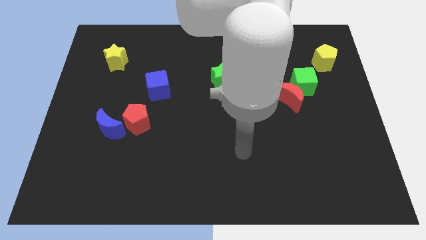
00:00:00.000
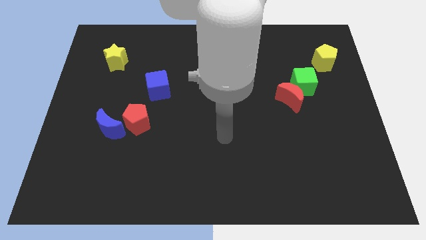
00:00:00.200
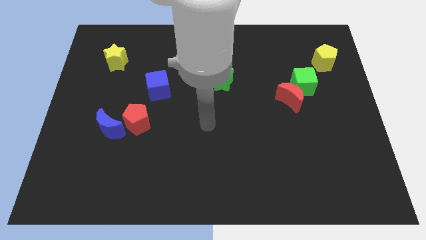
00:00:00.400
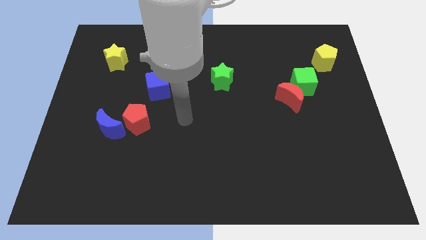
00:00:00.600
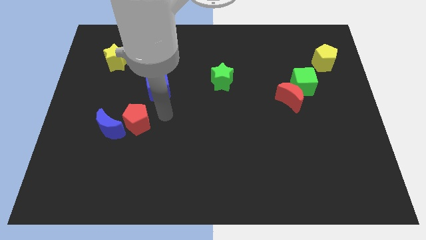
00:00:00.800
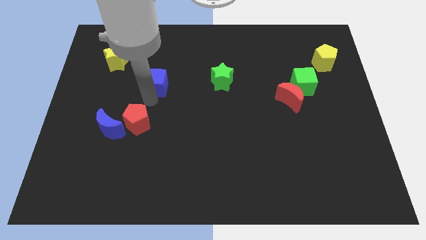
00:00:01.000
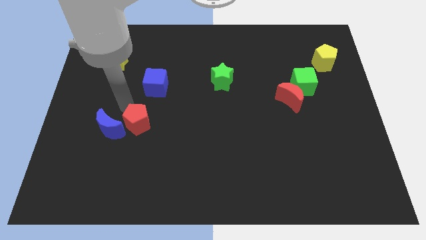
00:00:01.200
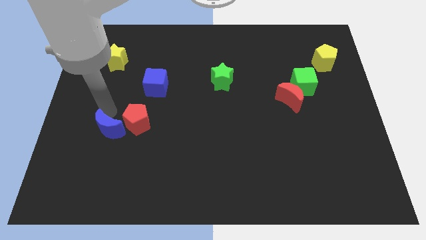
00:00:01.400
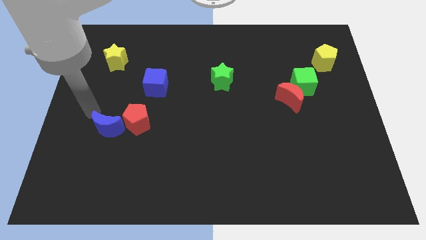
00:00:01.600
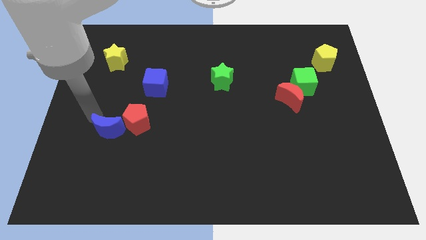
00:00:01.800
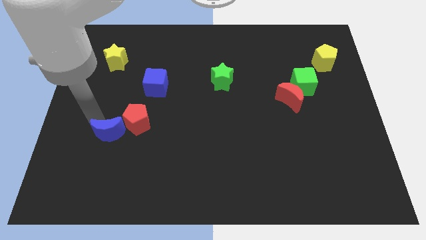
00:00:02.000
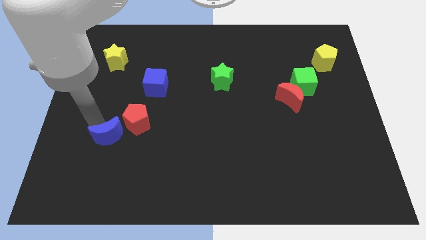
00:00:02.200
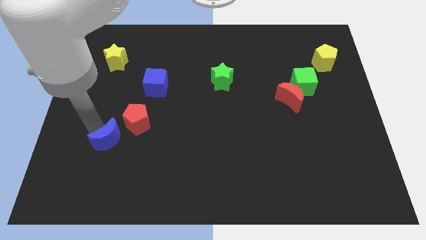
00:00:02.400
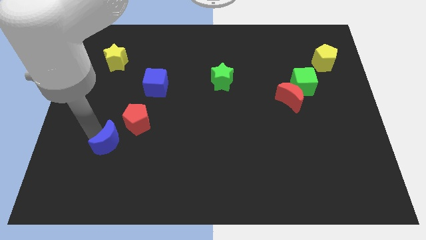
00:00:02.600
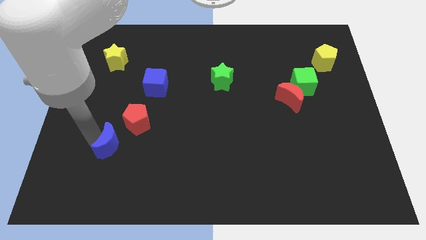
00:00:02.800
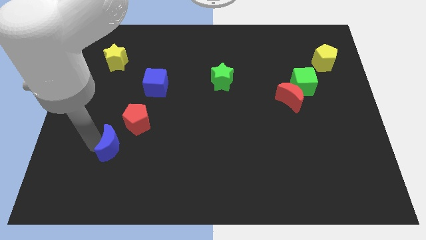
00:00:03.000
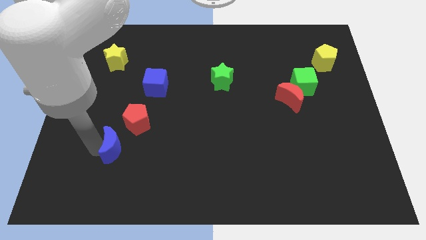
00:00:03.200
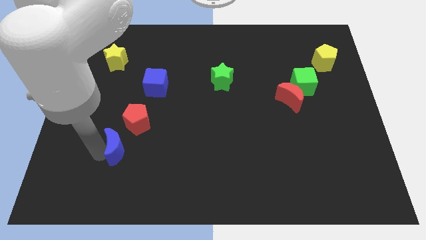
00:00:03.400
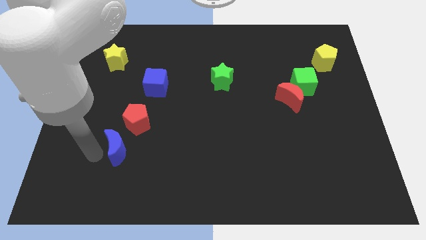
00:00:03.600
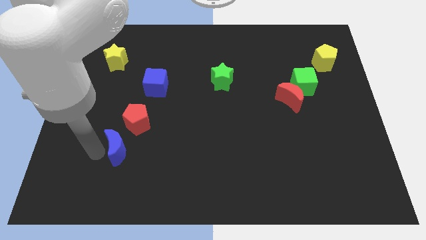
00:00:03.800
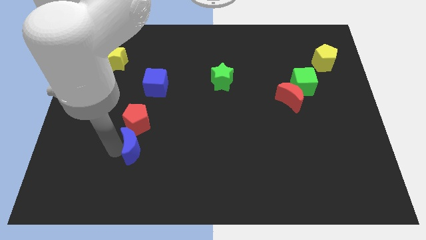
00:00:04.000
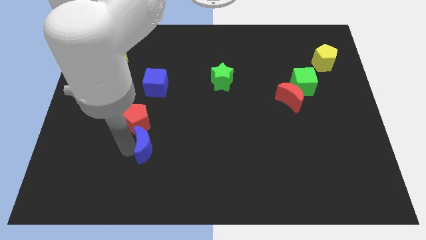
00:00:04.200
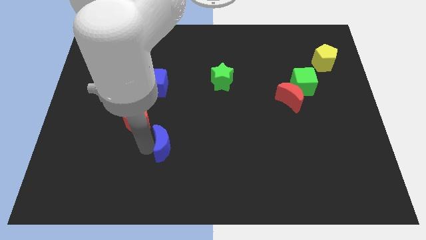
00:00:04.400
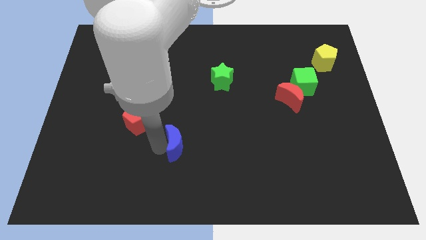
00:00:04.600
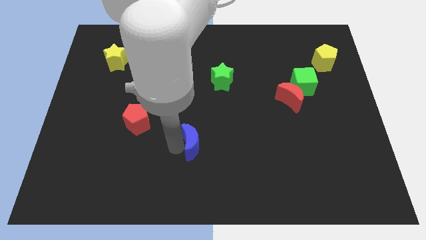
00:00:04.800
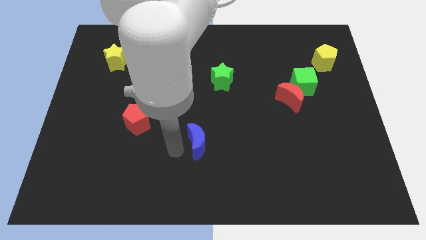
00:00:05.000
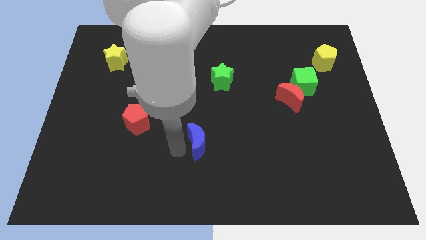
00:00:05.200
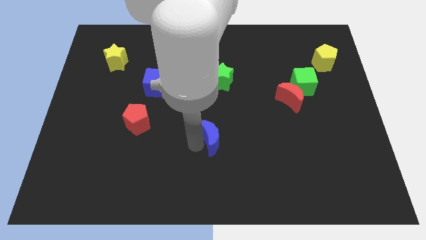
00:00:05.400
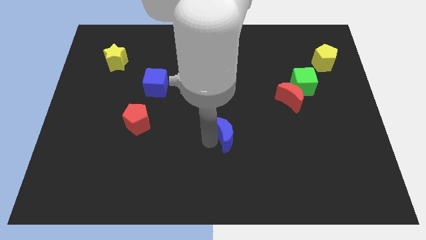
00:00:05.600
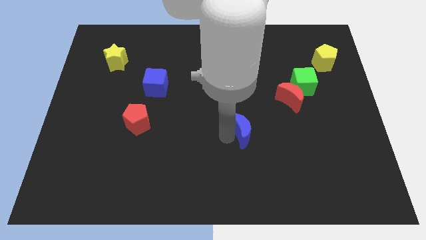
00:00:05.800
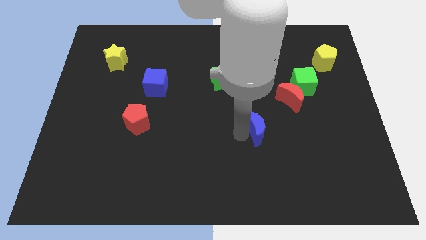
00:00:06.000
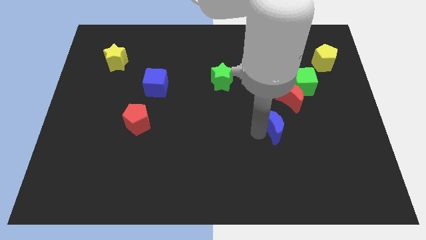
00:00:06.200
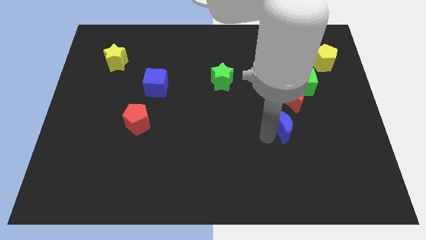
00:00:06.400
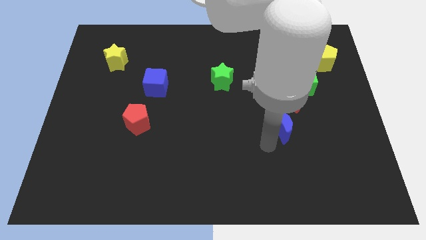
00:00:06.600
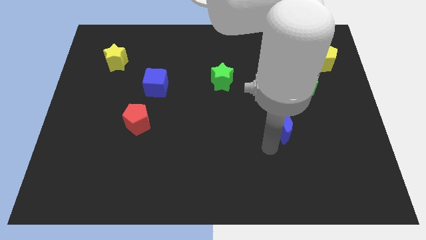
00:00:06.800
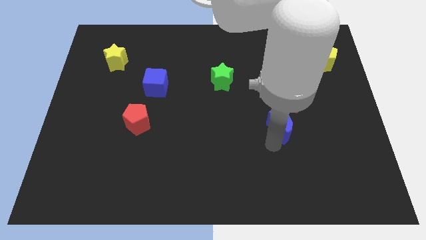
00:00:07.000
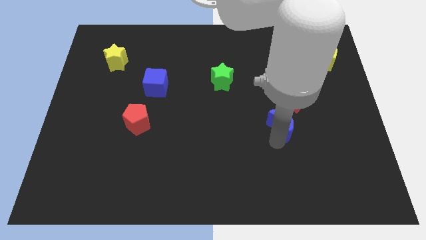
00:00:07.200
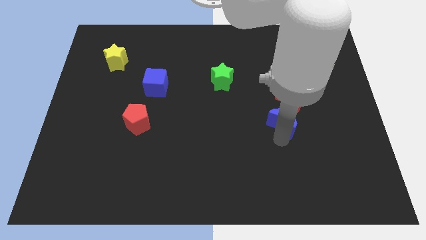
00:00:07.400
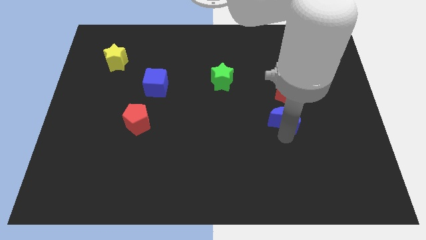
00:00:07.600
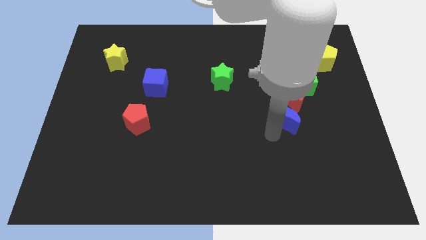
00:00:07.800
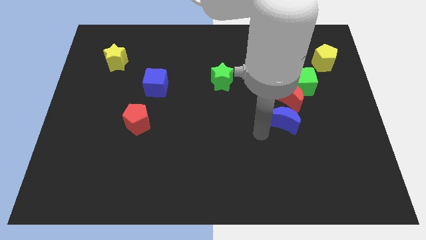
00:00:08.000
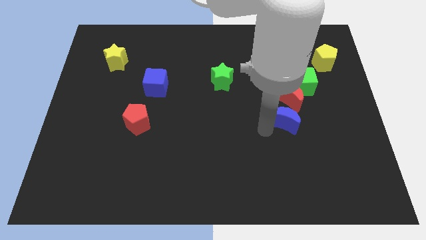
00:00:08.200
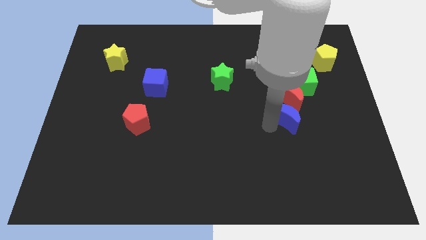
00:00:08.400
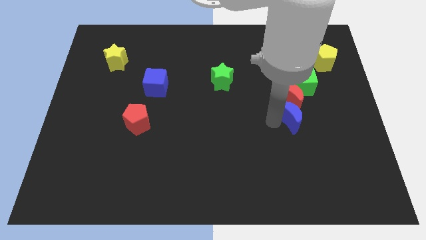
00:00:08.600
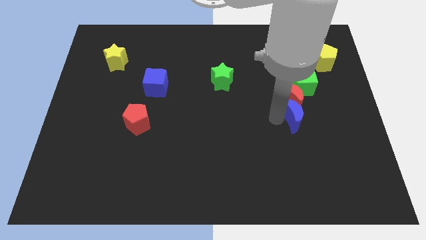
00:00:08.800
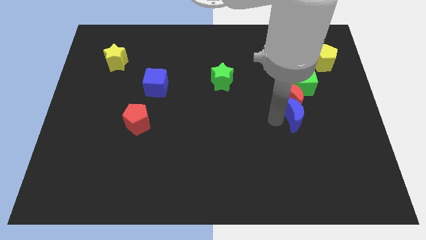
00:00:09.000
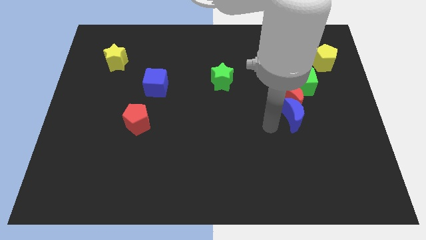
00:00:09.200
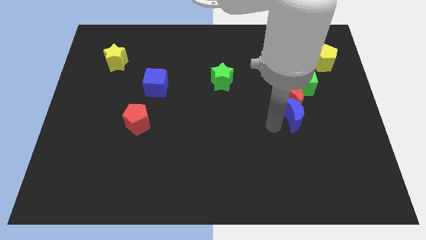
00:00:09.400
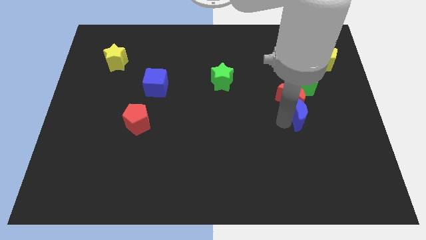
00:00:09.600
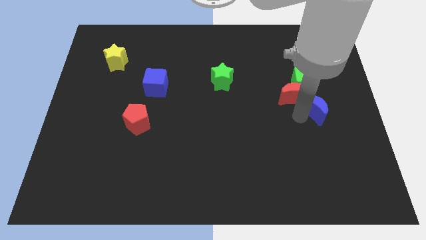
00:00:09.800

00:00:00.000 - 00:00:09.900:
move the blue moon right of the red moon

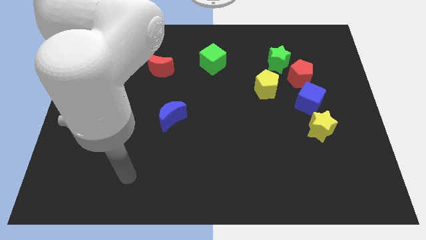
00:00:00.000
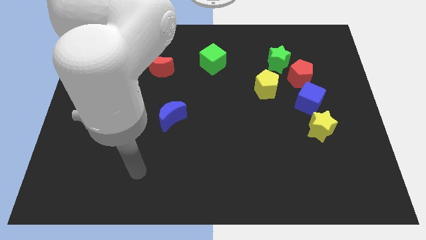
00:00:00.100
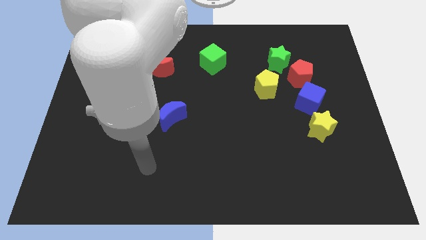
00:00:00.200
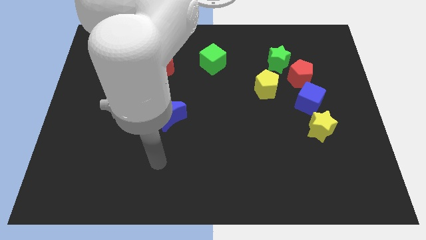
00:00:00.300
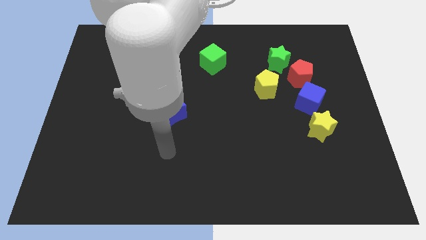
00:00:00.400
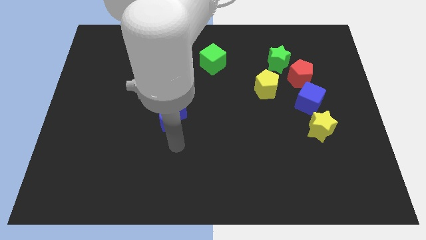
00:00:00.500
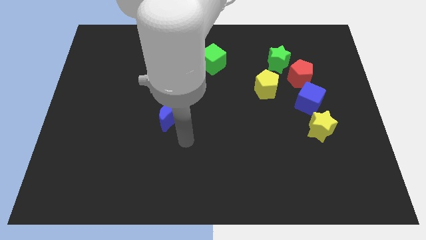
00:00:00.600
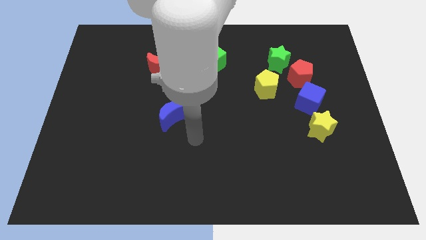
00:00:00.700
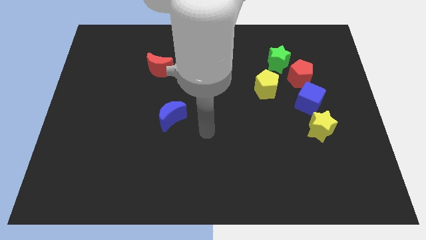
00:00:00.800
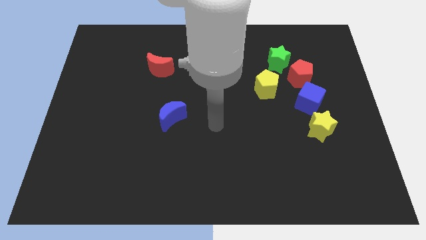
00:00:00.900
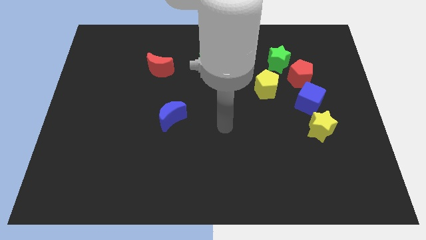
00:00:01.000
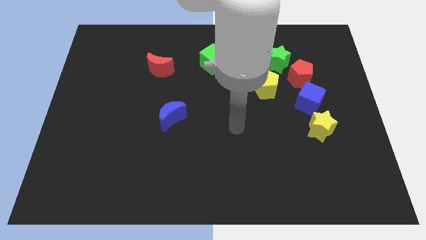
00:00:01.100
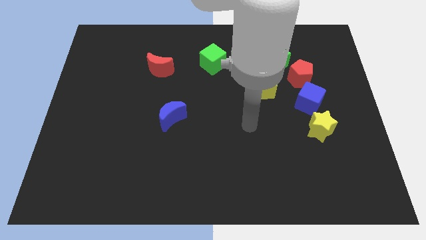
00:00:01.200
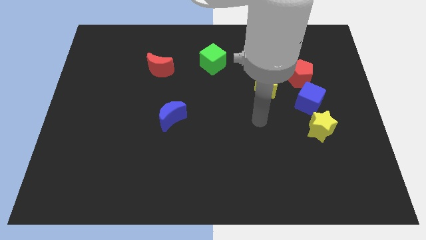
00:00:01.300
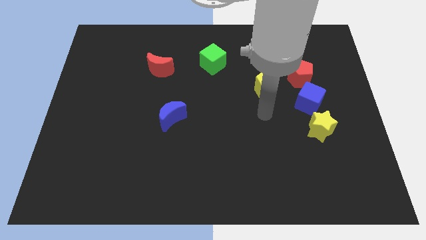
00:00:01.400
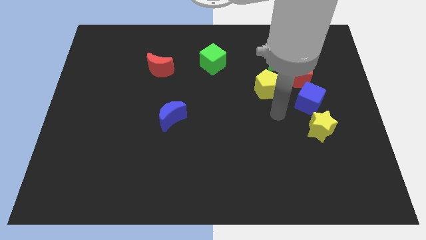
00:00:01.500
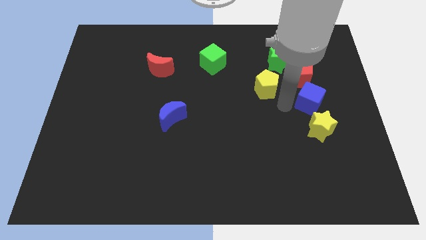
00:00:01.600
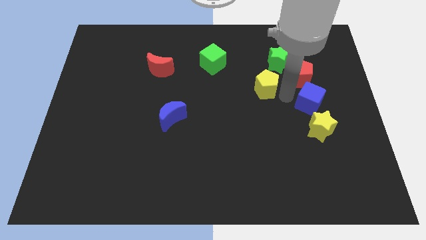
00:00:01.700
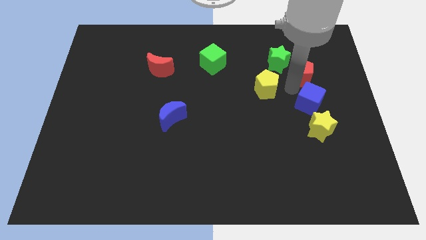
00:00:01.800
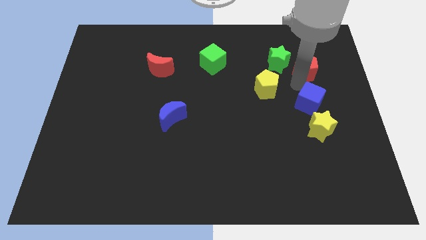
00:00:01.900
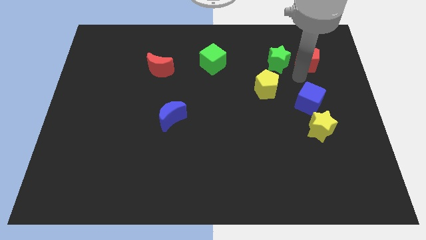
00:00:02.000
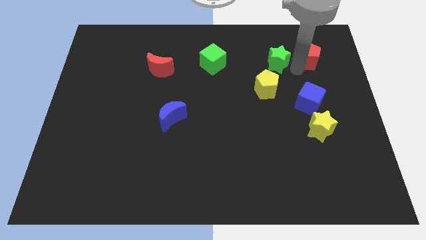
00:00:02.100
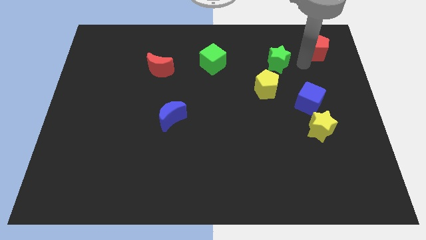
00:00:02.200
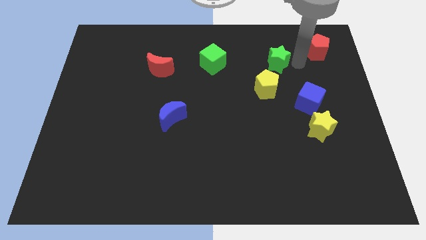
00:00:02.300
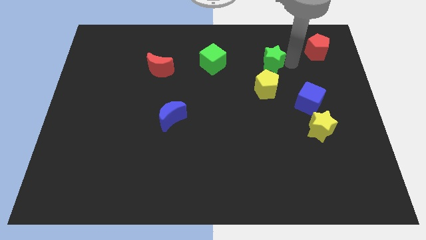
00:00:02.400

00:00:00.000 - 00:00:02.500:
put the green star just right of the green cube

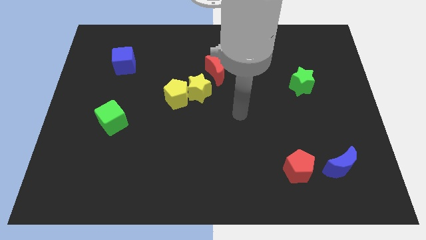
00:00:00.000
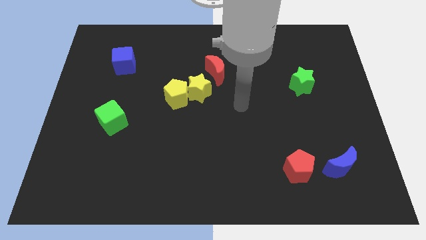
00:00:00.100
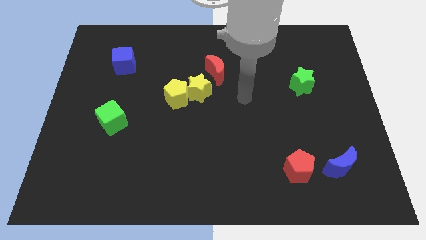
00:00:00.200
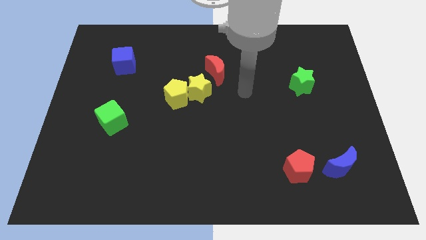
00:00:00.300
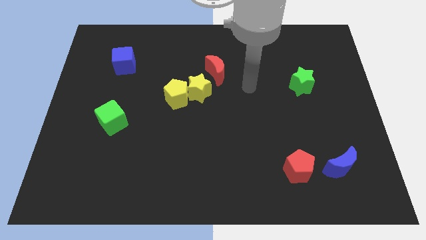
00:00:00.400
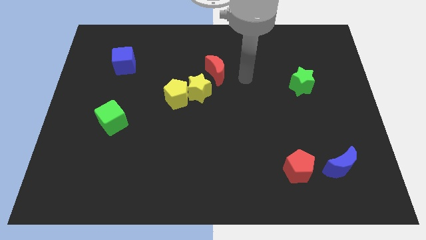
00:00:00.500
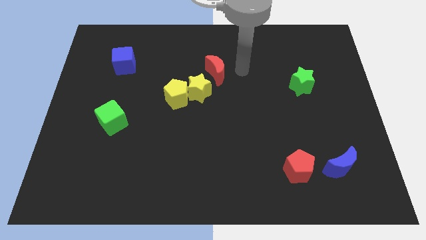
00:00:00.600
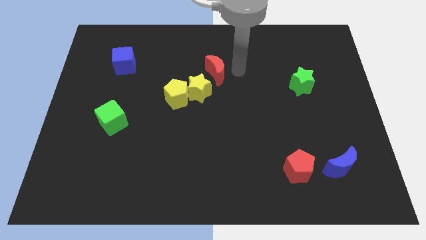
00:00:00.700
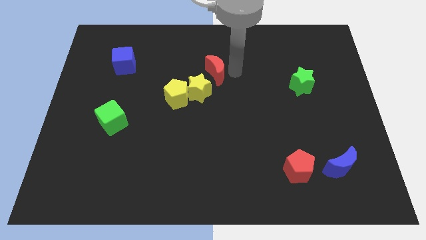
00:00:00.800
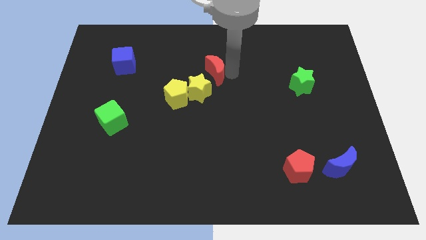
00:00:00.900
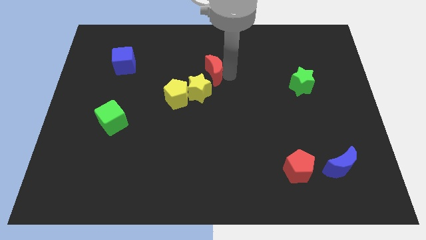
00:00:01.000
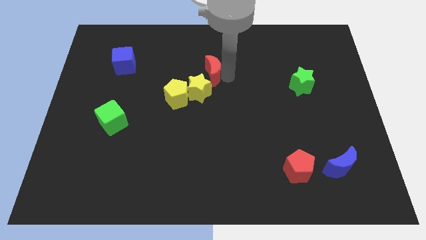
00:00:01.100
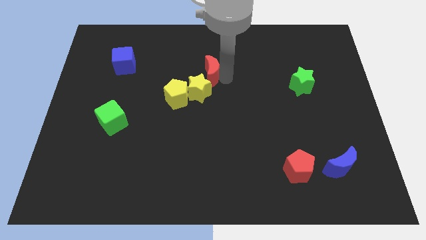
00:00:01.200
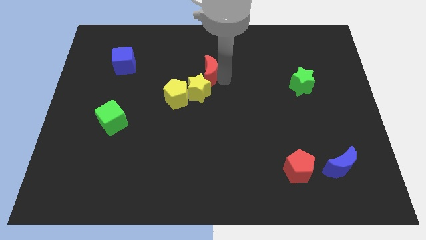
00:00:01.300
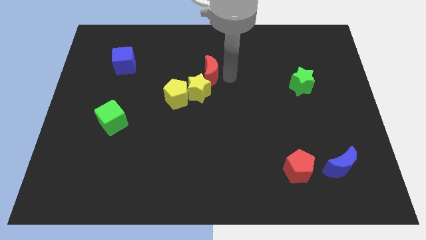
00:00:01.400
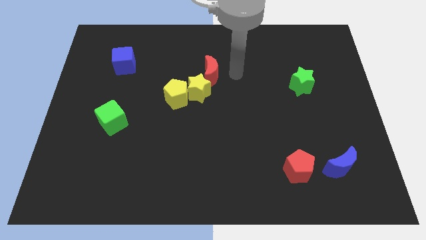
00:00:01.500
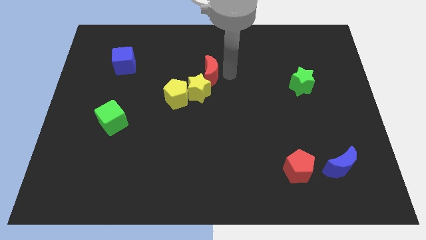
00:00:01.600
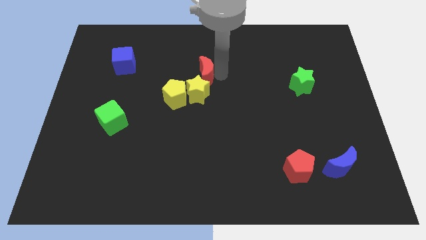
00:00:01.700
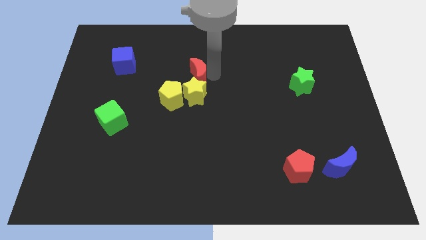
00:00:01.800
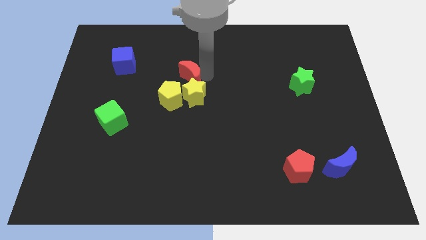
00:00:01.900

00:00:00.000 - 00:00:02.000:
put the red moon diagonally up and to the left of the yellow star
